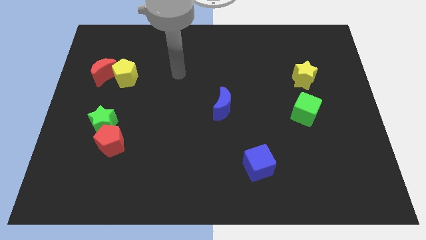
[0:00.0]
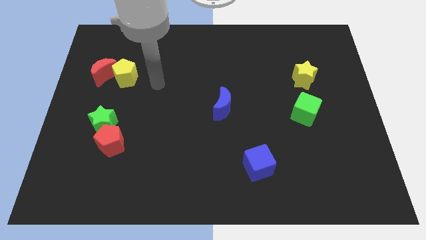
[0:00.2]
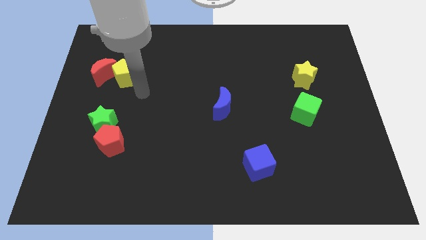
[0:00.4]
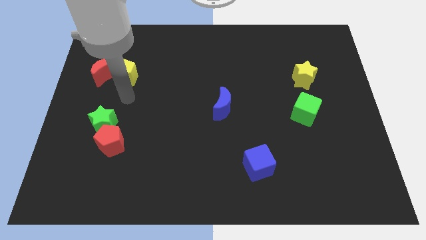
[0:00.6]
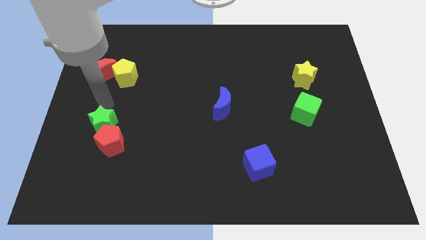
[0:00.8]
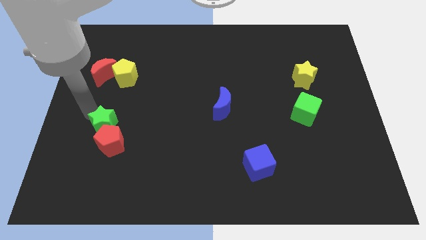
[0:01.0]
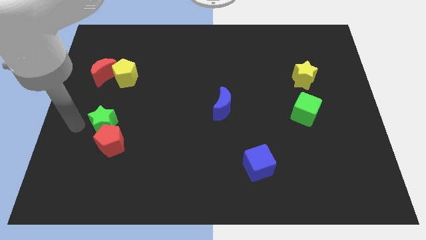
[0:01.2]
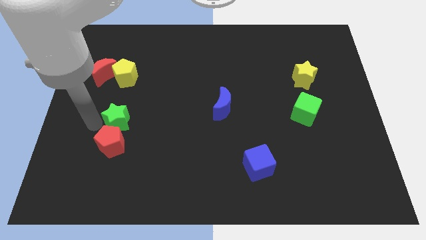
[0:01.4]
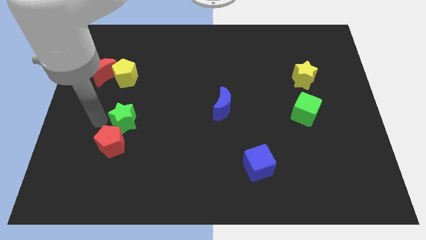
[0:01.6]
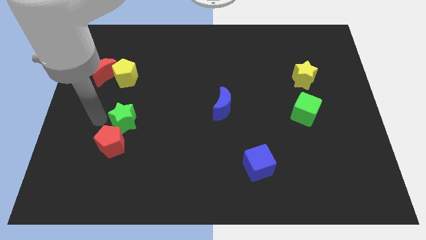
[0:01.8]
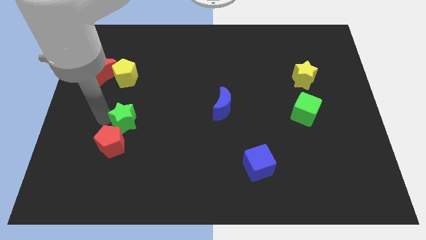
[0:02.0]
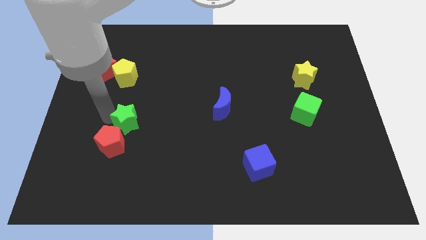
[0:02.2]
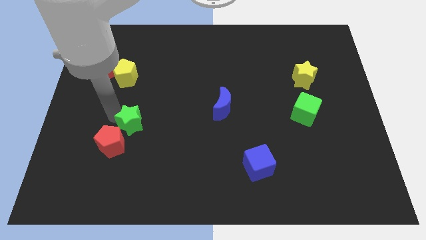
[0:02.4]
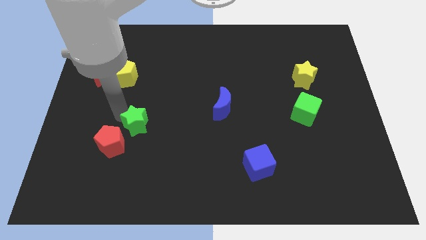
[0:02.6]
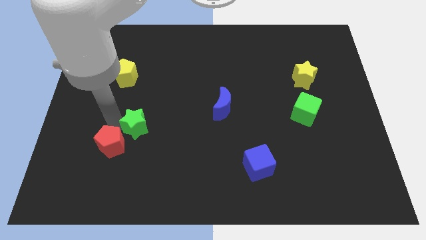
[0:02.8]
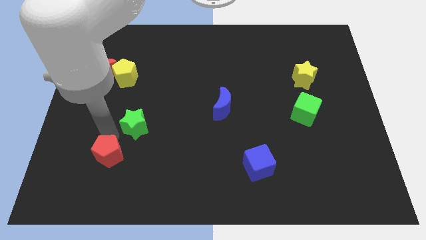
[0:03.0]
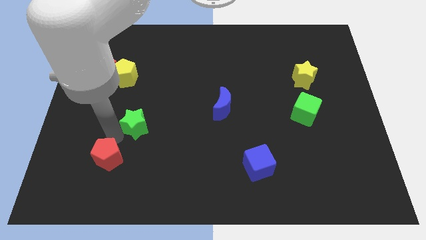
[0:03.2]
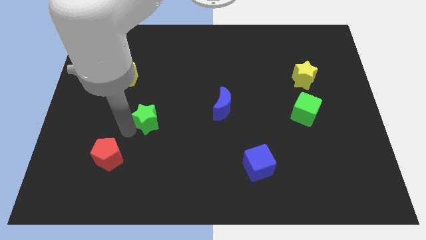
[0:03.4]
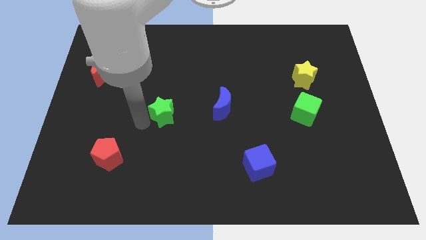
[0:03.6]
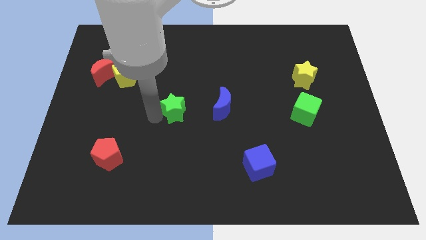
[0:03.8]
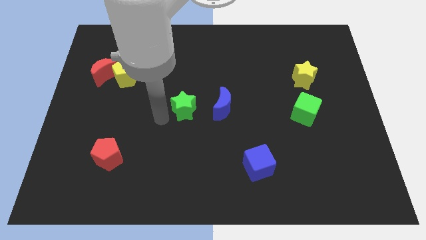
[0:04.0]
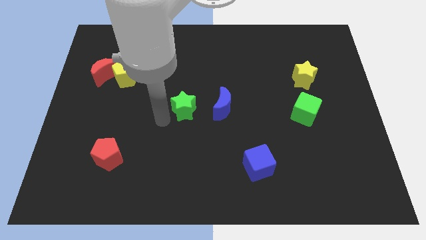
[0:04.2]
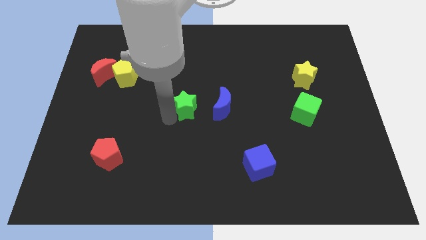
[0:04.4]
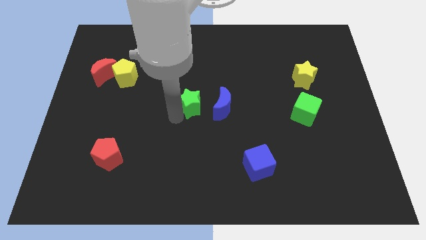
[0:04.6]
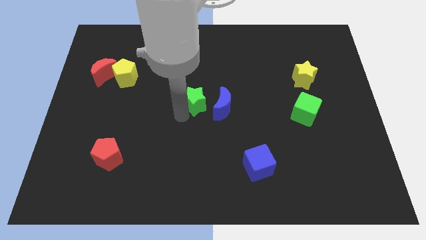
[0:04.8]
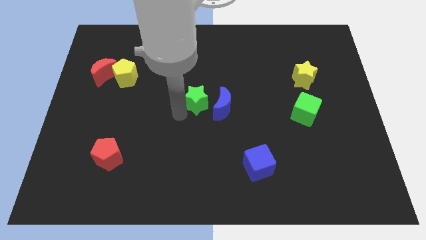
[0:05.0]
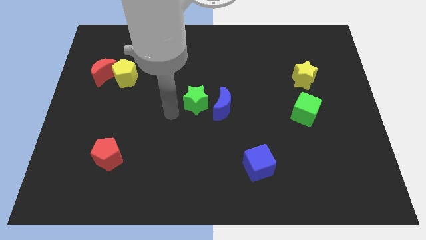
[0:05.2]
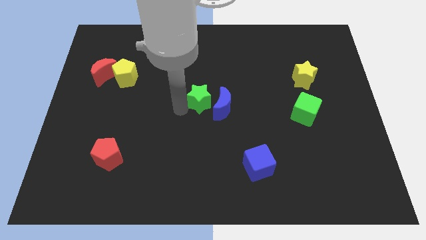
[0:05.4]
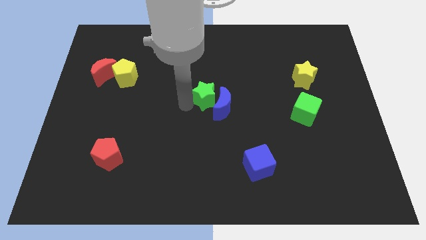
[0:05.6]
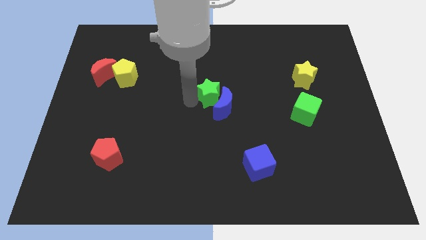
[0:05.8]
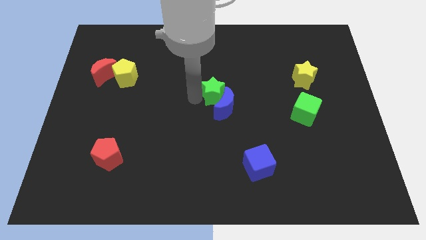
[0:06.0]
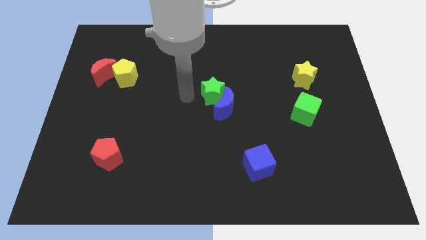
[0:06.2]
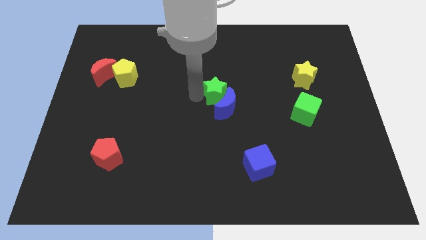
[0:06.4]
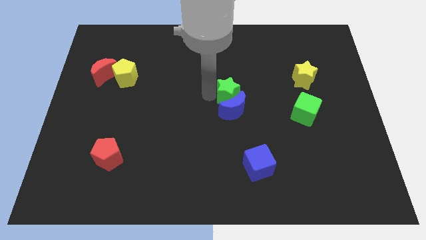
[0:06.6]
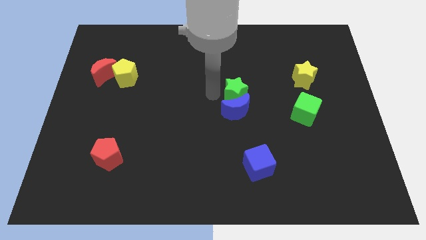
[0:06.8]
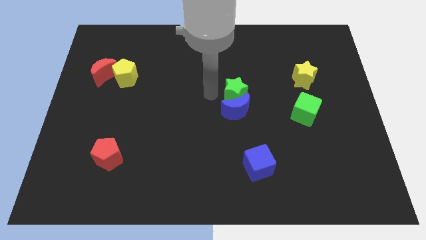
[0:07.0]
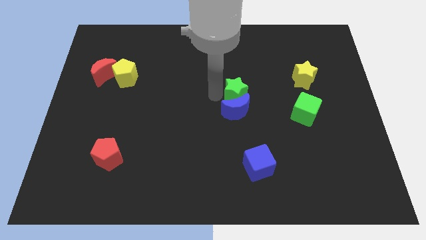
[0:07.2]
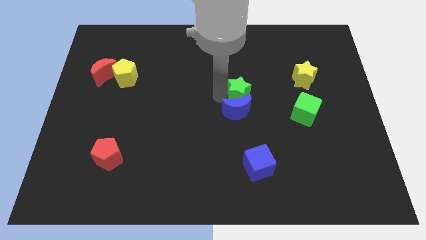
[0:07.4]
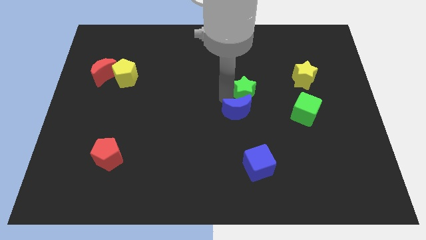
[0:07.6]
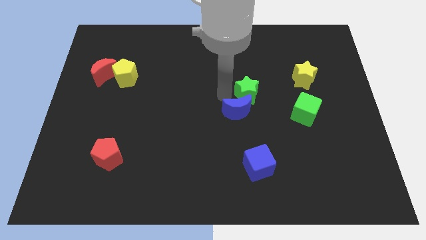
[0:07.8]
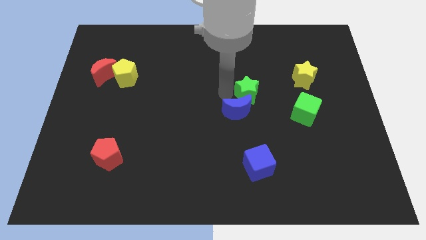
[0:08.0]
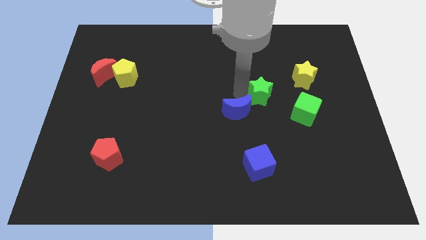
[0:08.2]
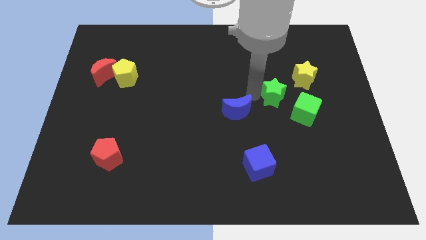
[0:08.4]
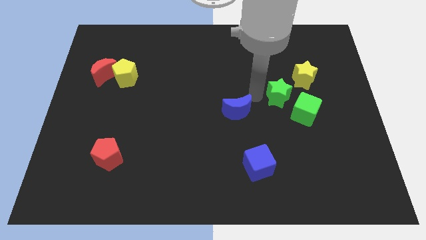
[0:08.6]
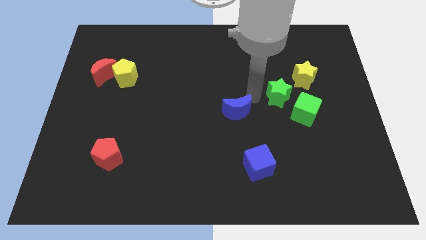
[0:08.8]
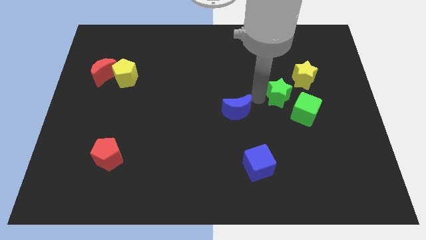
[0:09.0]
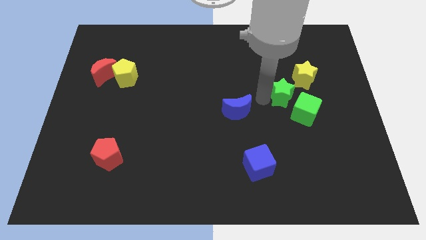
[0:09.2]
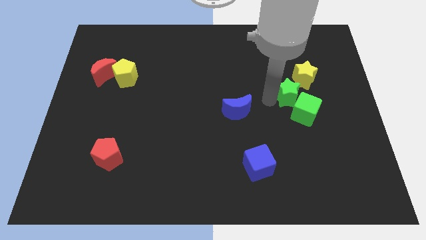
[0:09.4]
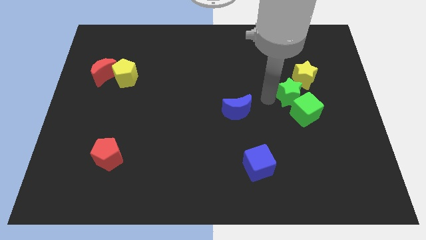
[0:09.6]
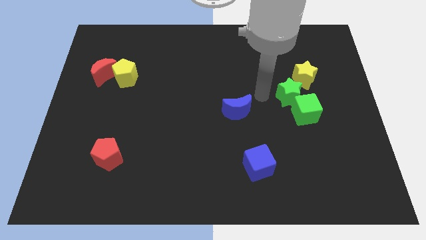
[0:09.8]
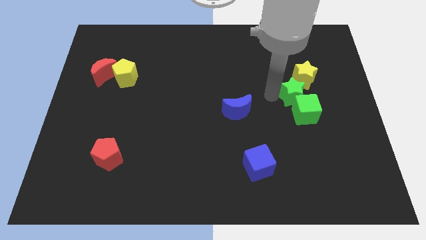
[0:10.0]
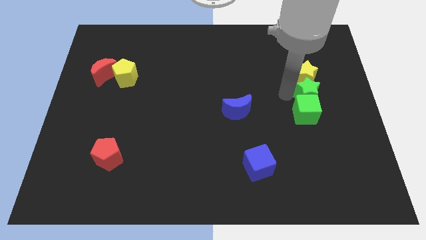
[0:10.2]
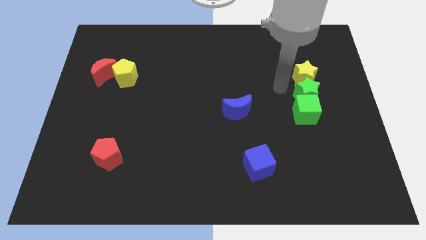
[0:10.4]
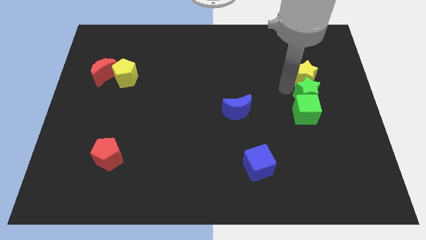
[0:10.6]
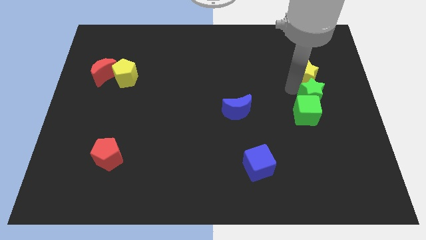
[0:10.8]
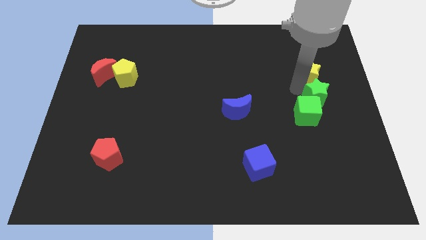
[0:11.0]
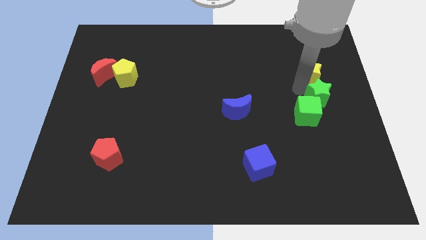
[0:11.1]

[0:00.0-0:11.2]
move the green star to the right side of the board

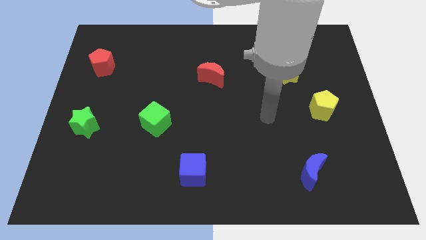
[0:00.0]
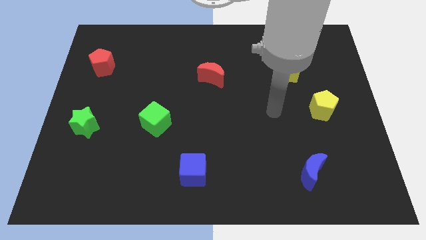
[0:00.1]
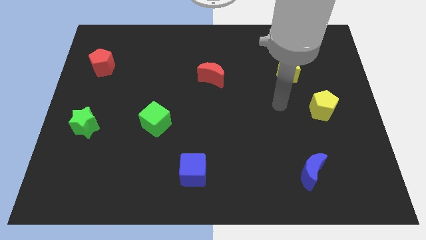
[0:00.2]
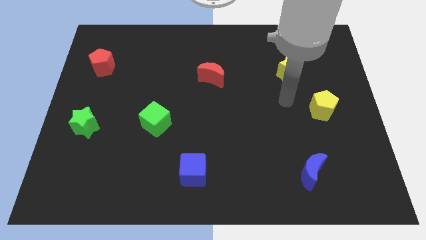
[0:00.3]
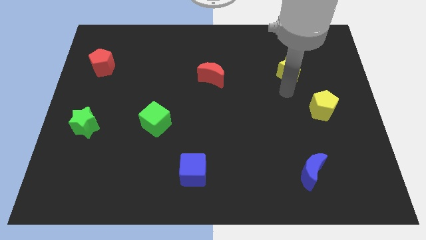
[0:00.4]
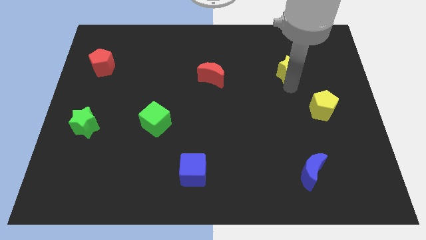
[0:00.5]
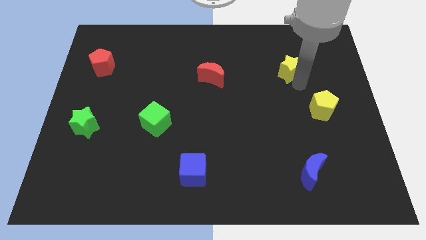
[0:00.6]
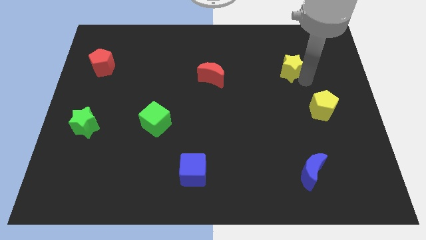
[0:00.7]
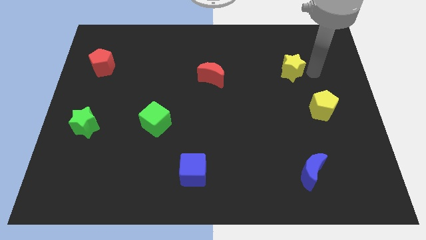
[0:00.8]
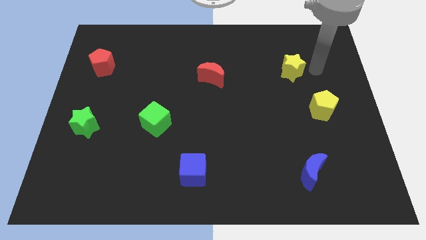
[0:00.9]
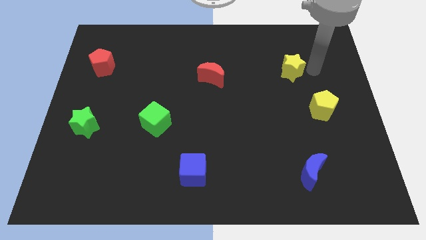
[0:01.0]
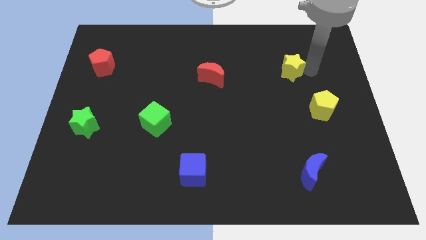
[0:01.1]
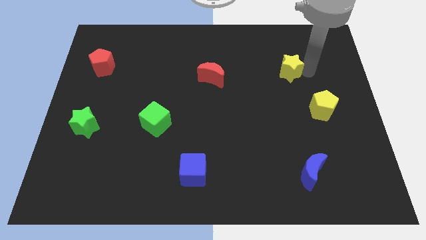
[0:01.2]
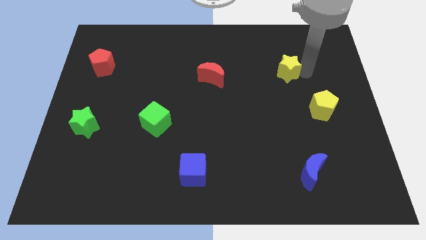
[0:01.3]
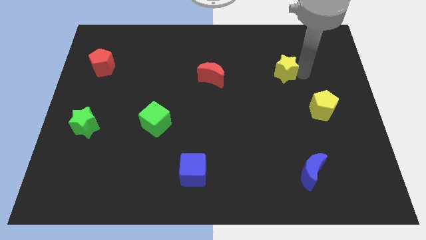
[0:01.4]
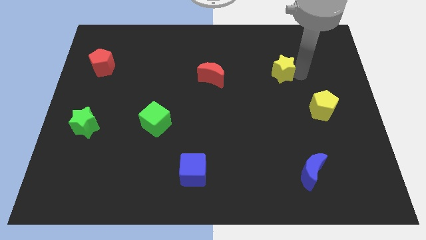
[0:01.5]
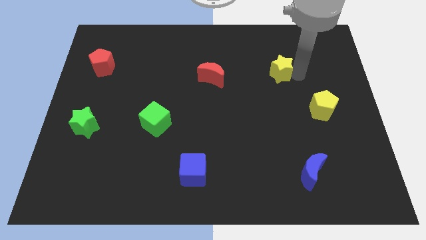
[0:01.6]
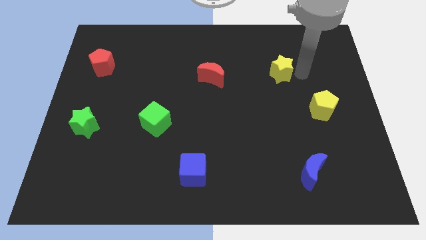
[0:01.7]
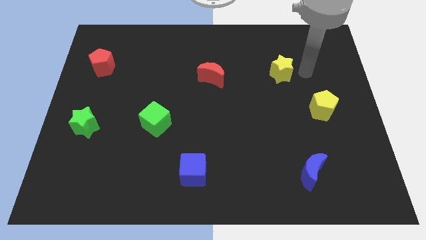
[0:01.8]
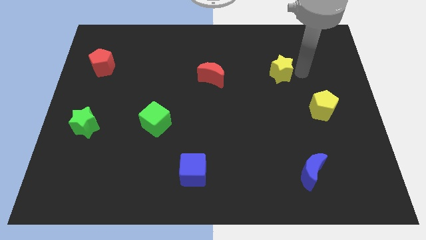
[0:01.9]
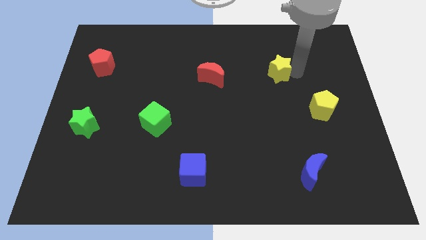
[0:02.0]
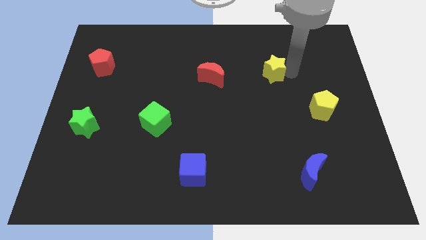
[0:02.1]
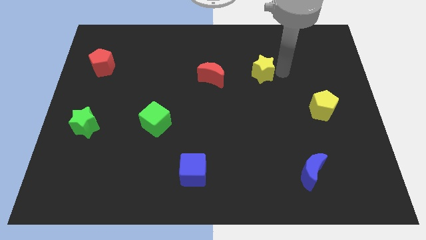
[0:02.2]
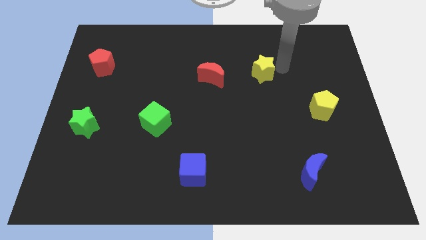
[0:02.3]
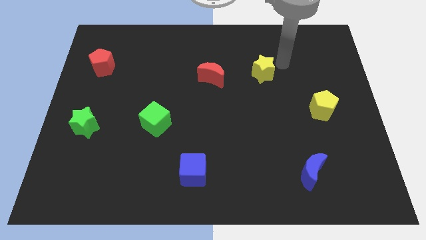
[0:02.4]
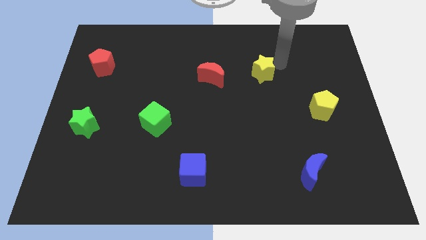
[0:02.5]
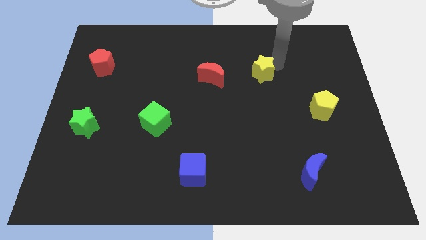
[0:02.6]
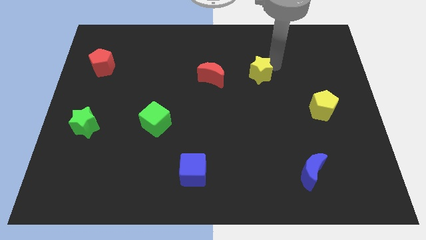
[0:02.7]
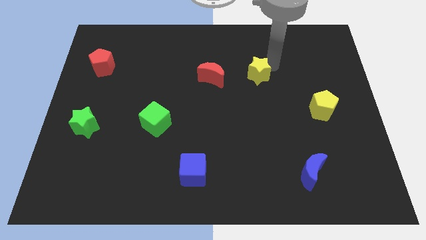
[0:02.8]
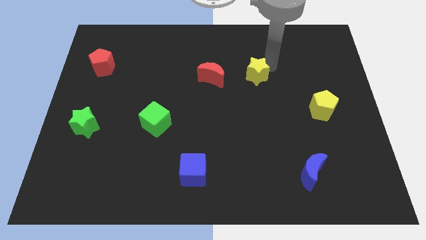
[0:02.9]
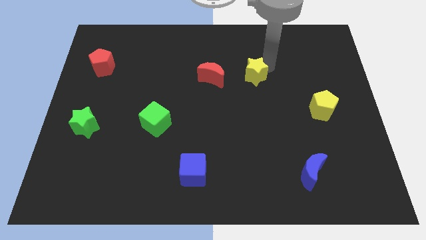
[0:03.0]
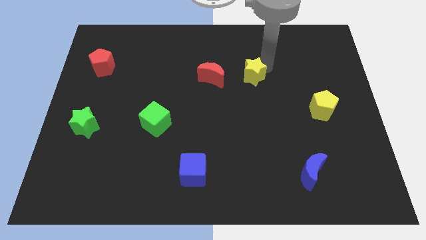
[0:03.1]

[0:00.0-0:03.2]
push the yellow star to the center
